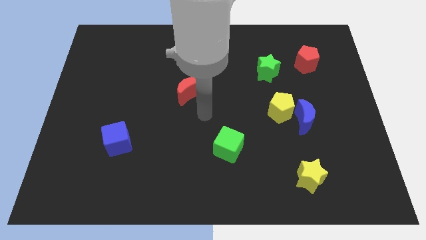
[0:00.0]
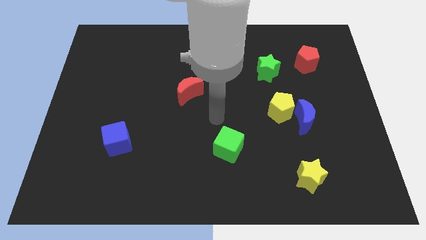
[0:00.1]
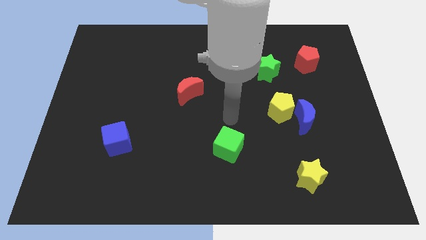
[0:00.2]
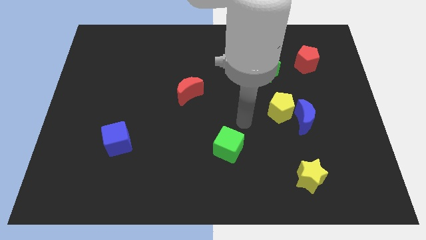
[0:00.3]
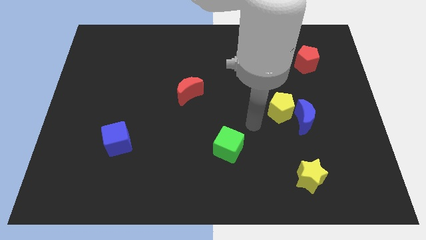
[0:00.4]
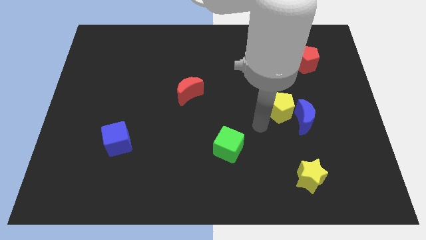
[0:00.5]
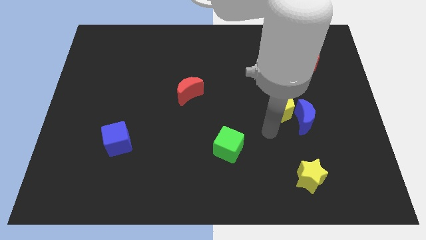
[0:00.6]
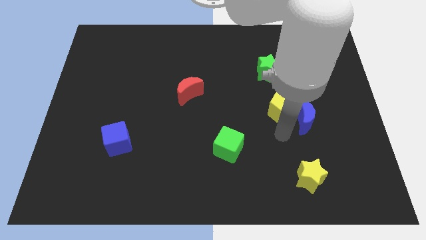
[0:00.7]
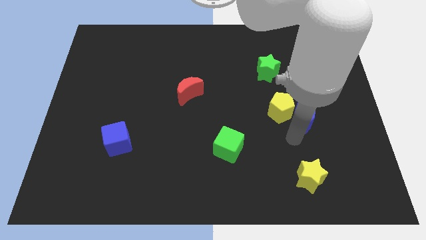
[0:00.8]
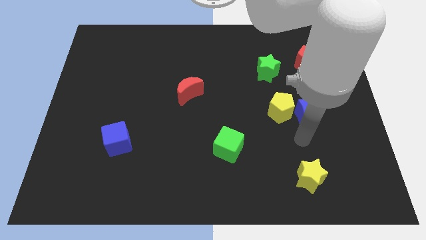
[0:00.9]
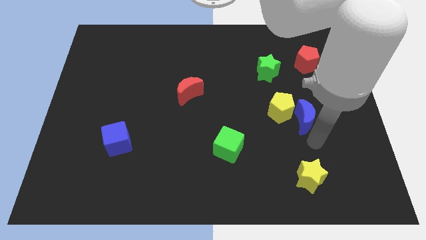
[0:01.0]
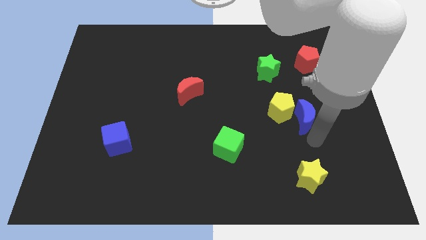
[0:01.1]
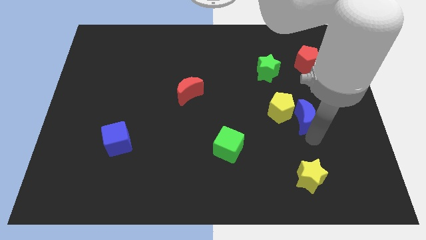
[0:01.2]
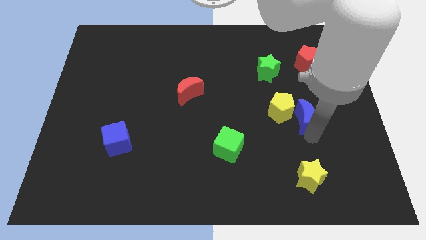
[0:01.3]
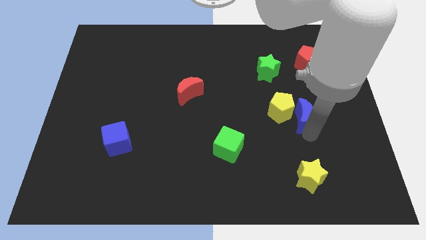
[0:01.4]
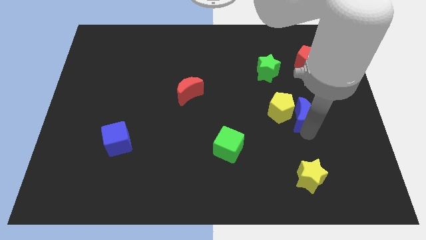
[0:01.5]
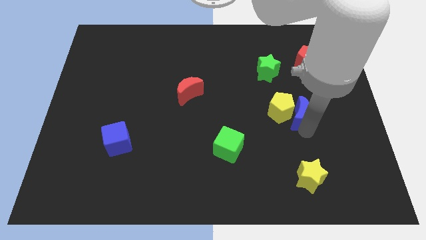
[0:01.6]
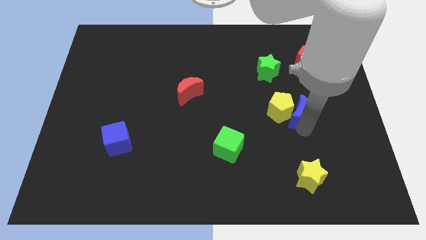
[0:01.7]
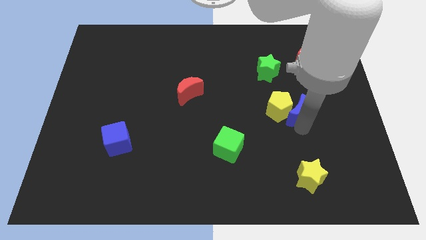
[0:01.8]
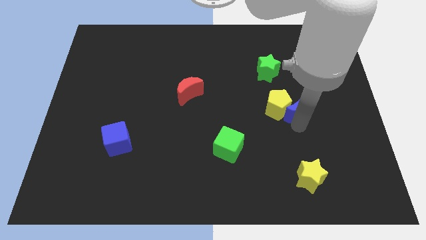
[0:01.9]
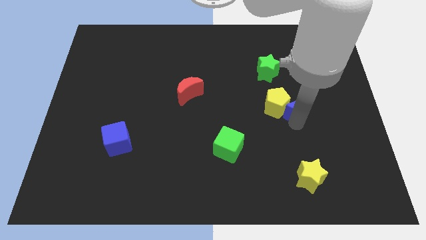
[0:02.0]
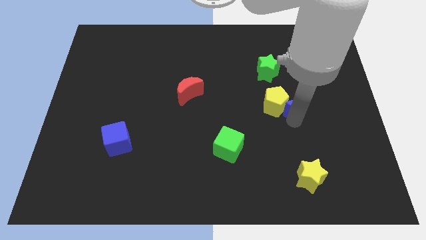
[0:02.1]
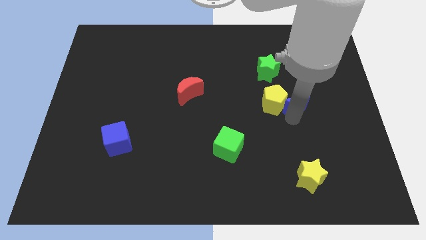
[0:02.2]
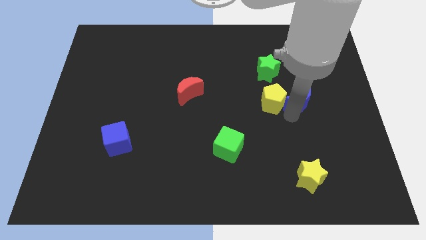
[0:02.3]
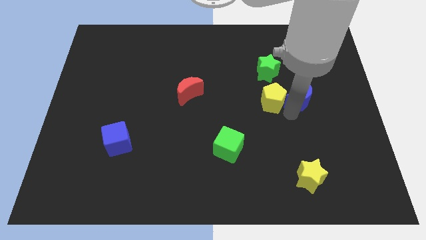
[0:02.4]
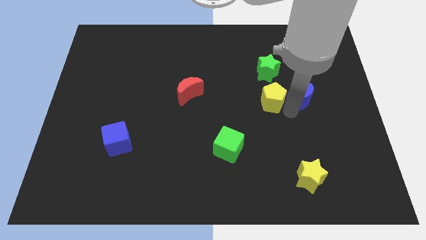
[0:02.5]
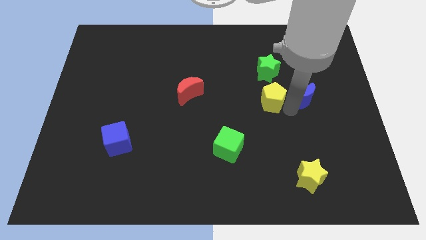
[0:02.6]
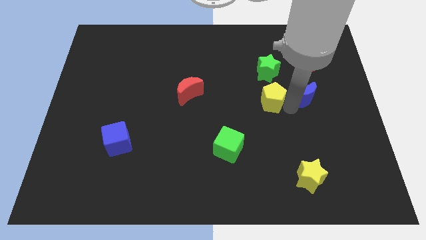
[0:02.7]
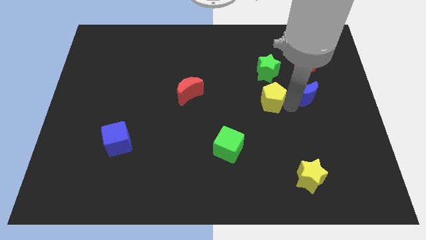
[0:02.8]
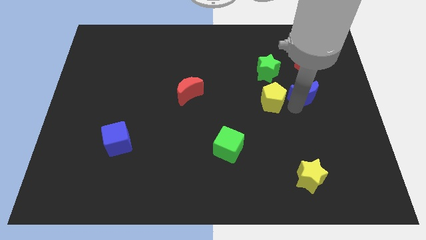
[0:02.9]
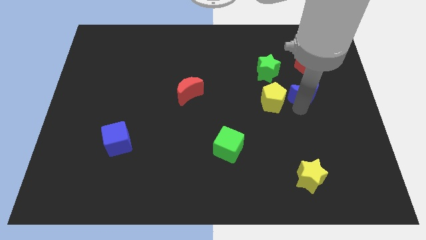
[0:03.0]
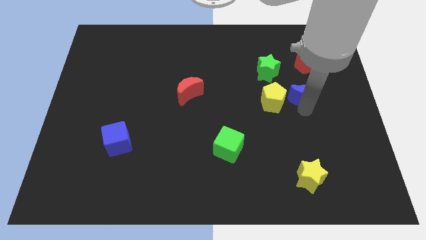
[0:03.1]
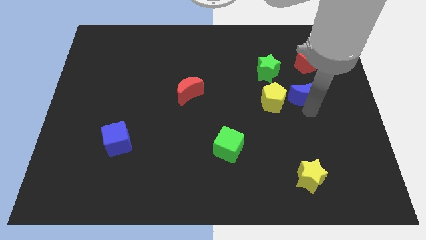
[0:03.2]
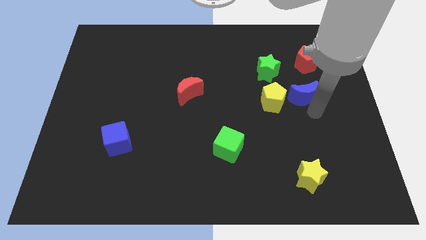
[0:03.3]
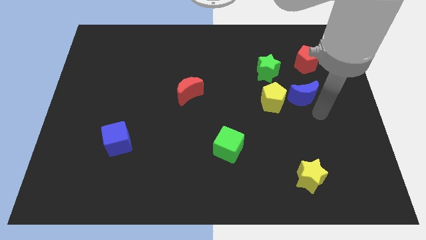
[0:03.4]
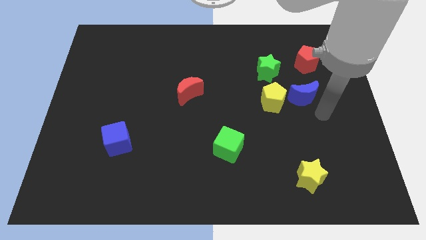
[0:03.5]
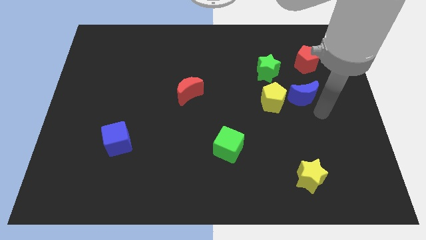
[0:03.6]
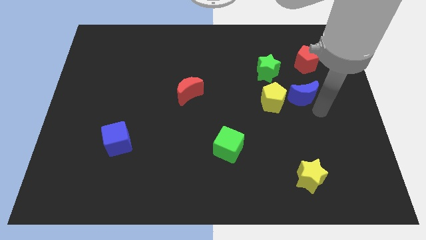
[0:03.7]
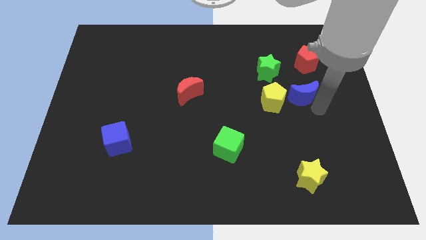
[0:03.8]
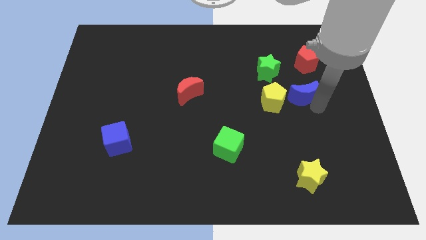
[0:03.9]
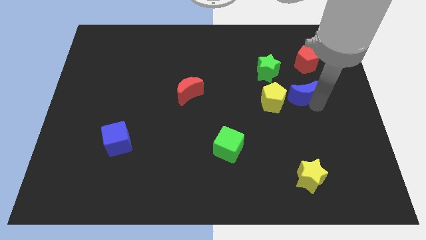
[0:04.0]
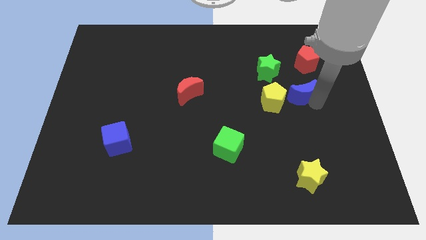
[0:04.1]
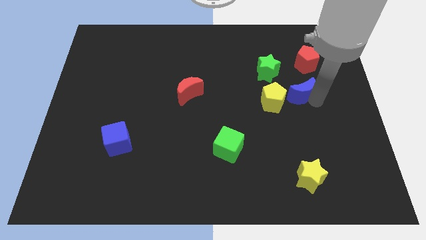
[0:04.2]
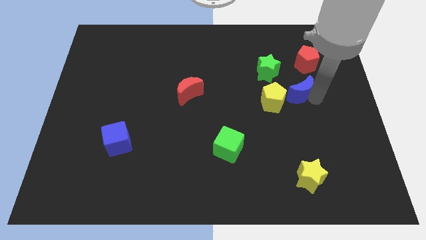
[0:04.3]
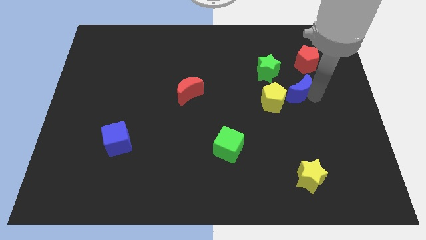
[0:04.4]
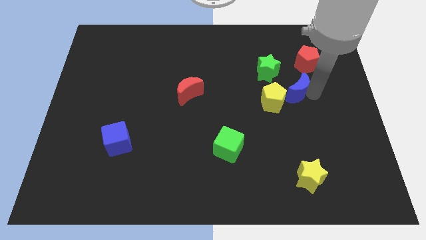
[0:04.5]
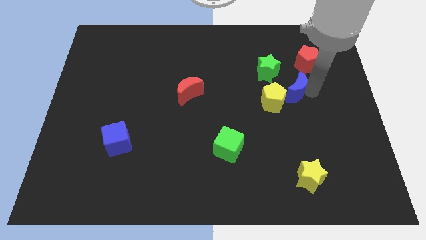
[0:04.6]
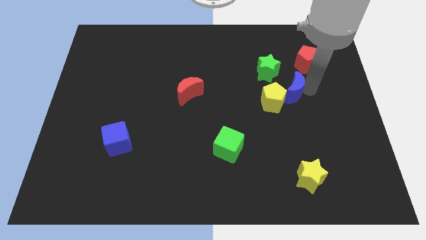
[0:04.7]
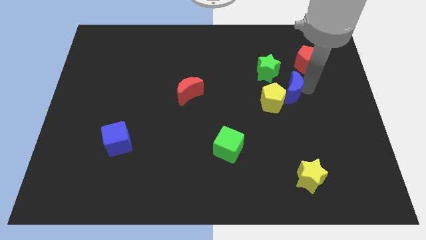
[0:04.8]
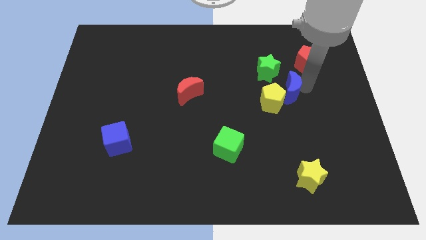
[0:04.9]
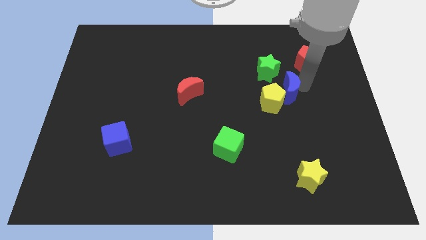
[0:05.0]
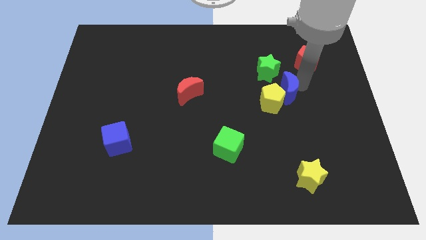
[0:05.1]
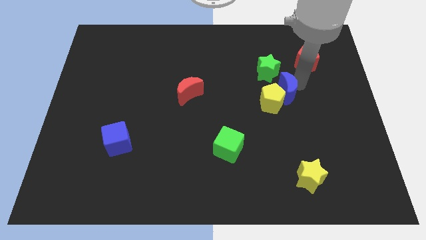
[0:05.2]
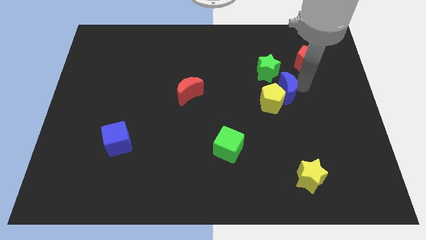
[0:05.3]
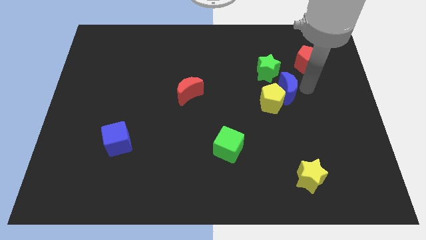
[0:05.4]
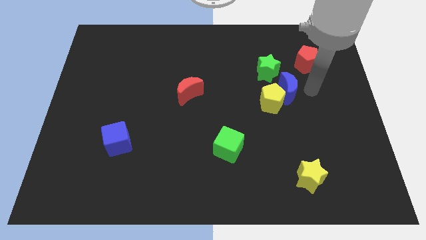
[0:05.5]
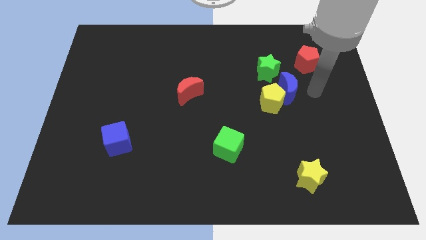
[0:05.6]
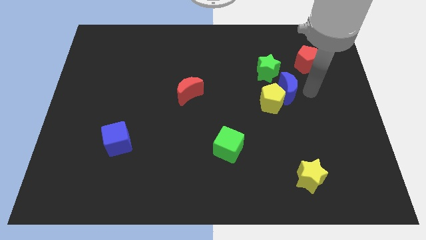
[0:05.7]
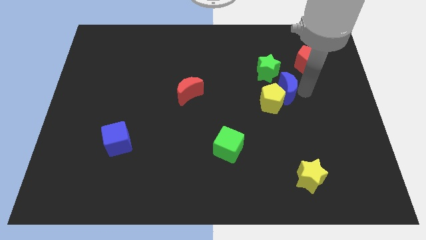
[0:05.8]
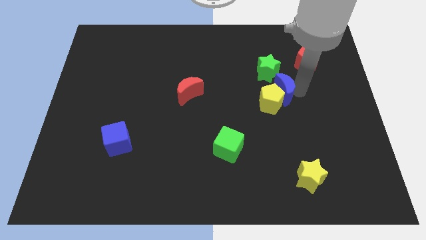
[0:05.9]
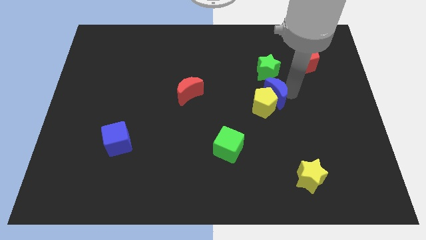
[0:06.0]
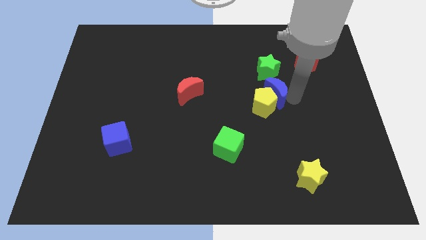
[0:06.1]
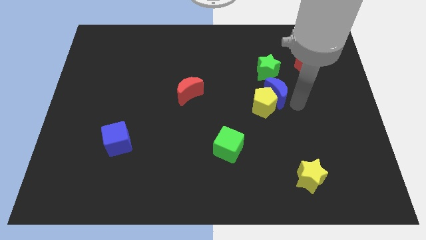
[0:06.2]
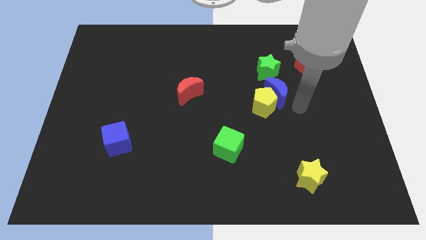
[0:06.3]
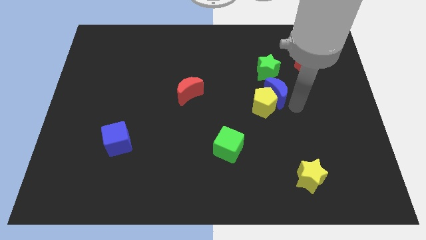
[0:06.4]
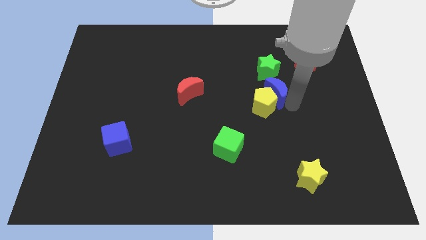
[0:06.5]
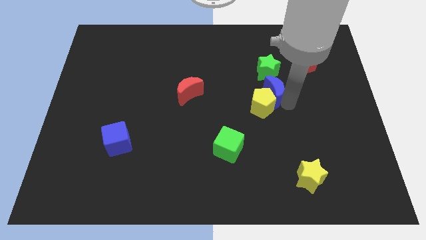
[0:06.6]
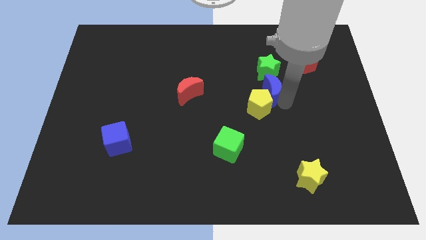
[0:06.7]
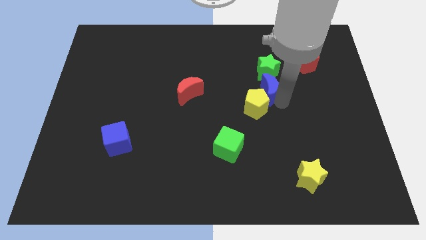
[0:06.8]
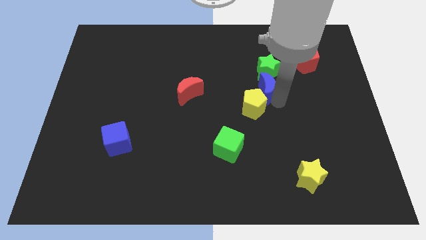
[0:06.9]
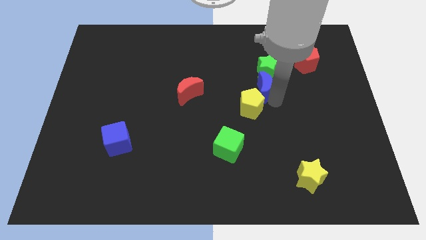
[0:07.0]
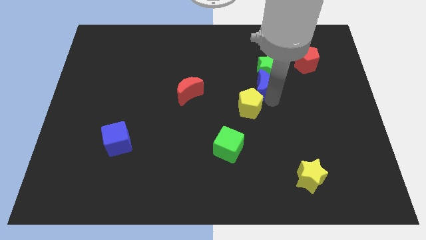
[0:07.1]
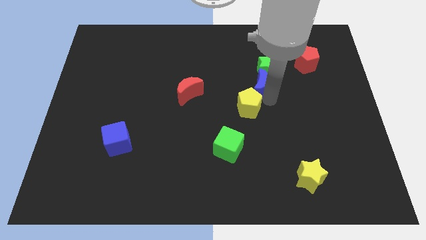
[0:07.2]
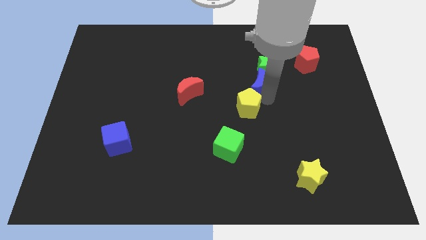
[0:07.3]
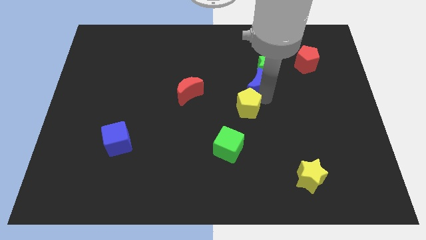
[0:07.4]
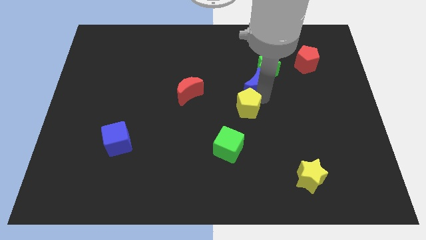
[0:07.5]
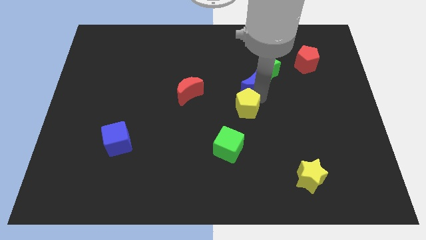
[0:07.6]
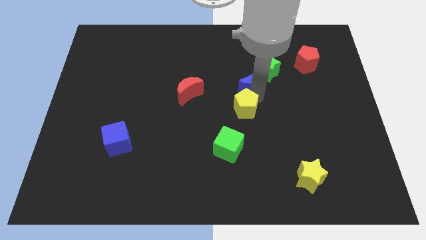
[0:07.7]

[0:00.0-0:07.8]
slide the blue moon left of the green star
